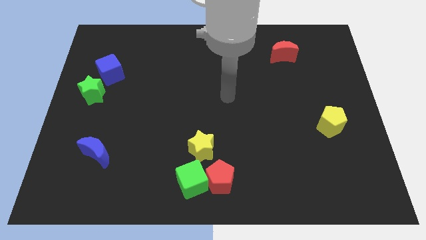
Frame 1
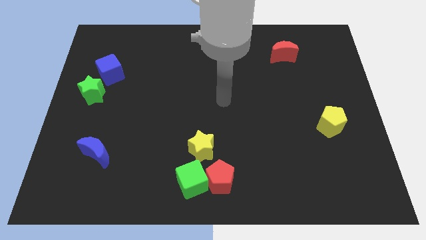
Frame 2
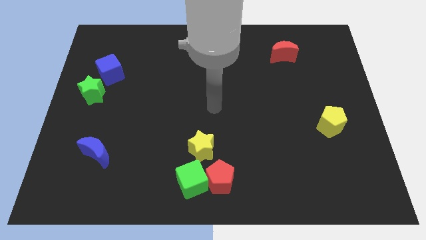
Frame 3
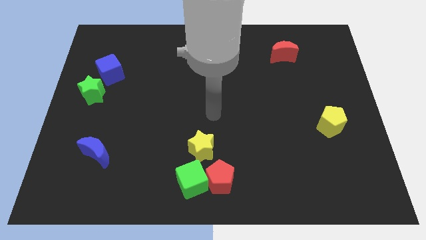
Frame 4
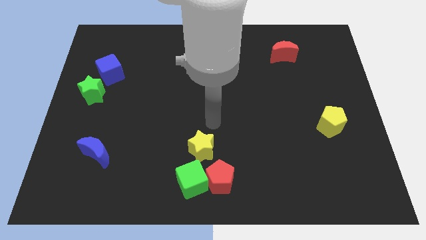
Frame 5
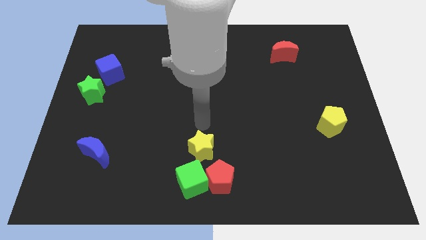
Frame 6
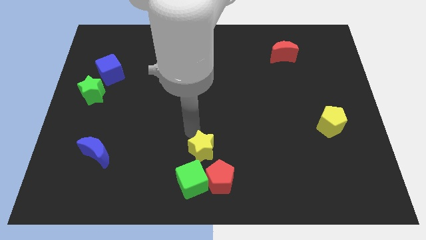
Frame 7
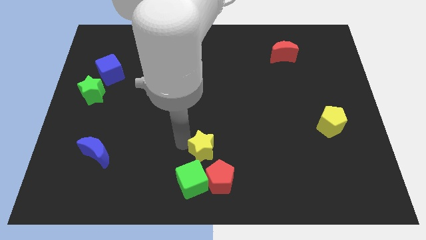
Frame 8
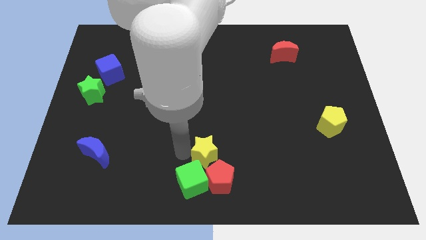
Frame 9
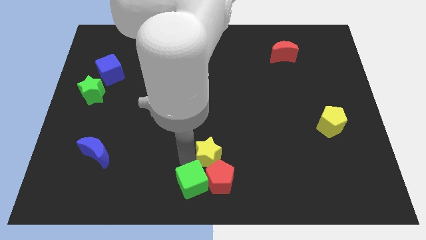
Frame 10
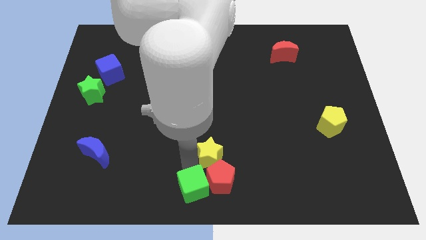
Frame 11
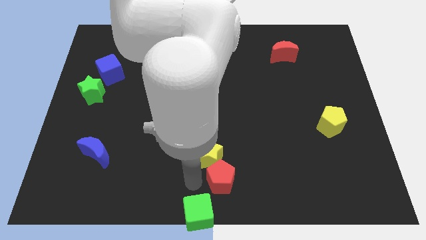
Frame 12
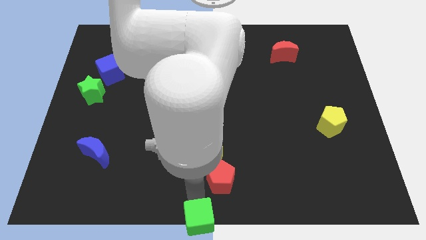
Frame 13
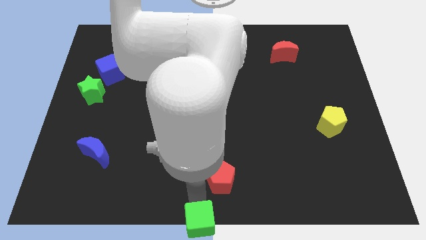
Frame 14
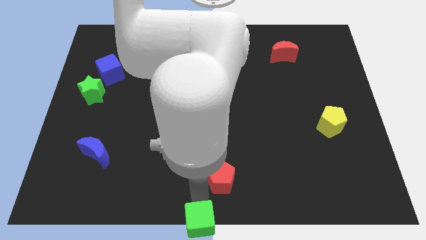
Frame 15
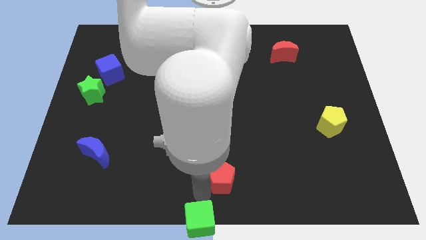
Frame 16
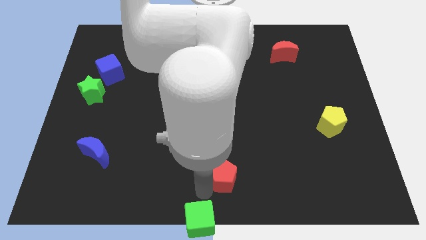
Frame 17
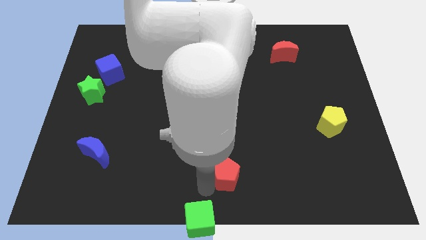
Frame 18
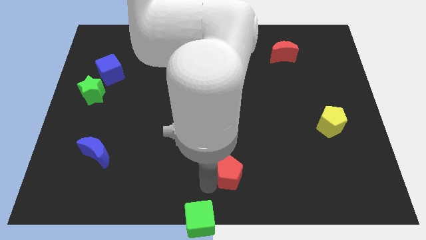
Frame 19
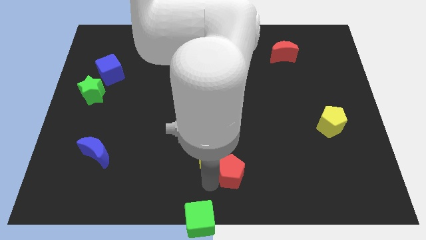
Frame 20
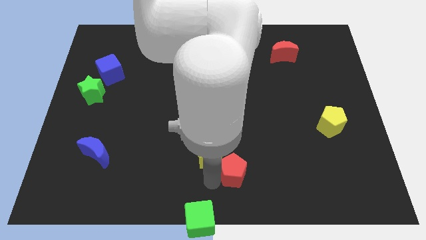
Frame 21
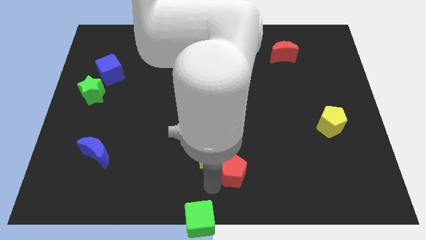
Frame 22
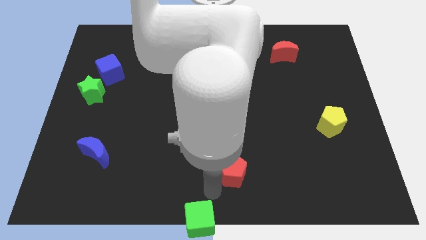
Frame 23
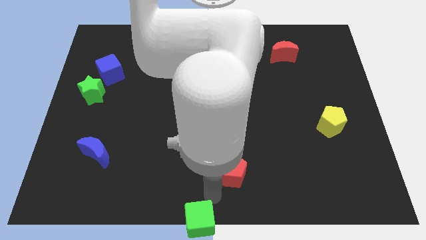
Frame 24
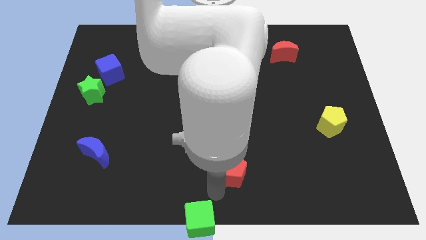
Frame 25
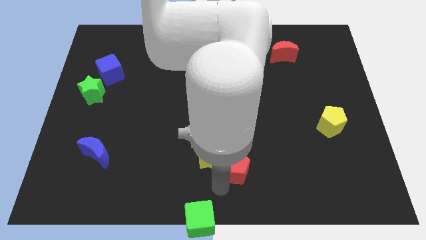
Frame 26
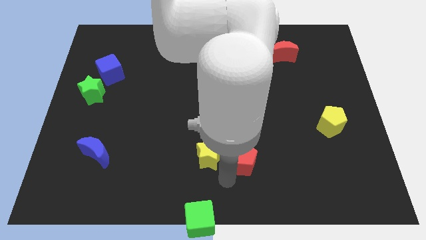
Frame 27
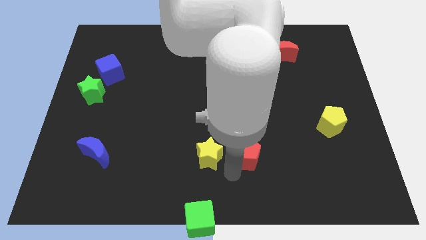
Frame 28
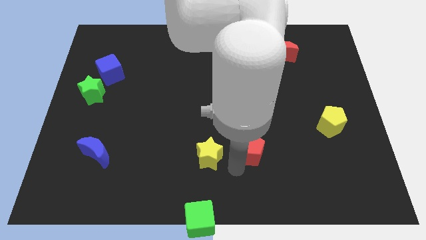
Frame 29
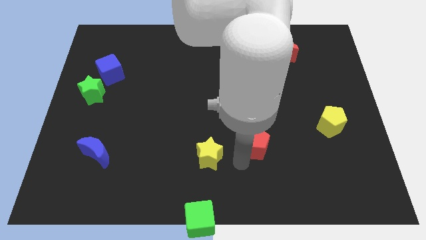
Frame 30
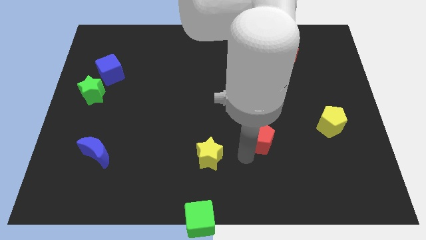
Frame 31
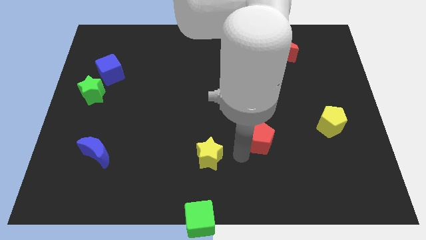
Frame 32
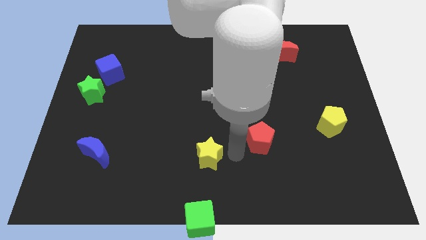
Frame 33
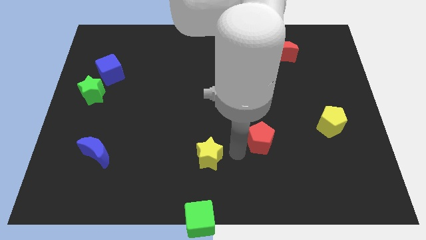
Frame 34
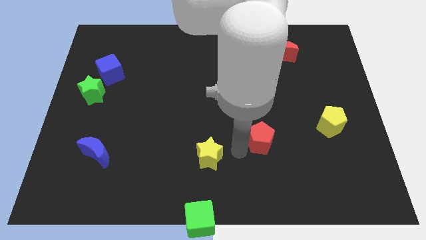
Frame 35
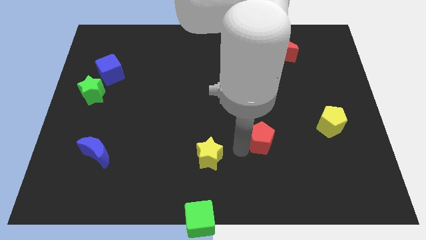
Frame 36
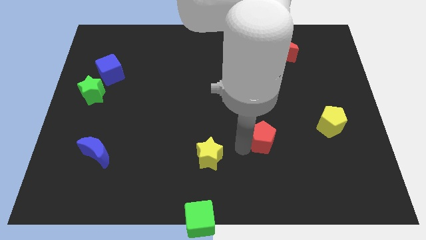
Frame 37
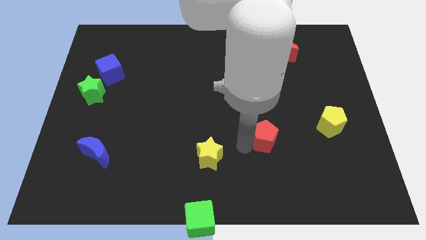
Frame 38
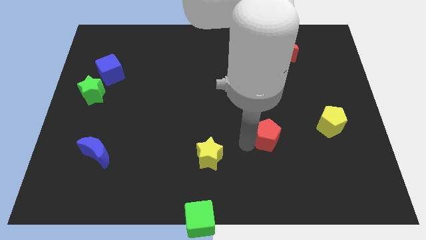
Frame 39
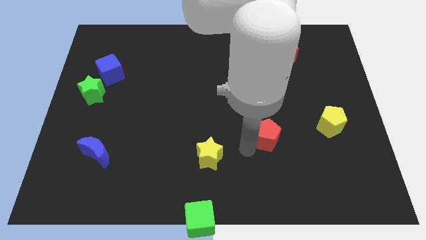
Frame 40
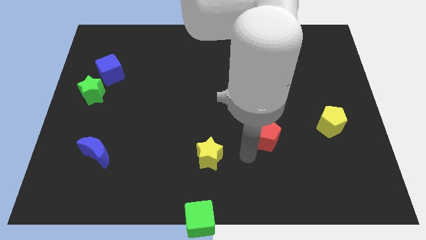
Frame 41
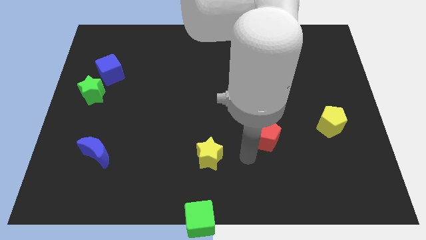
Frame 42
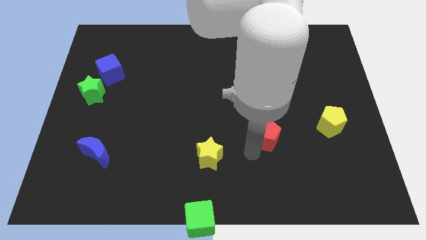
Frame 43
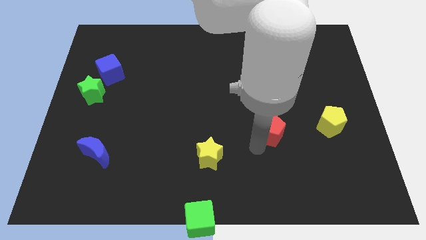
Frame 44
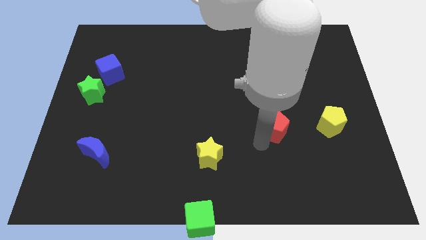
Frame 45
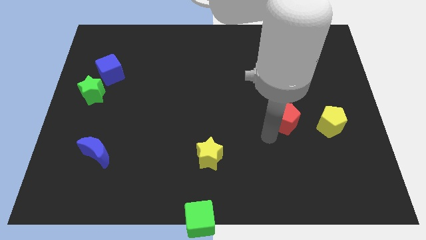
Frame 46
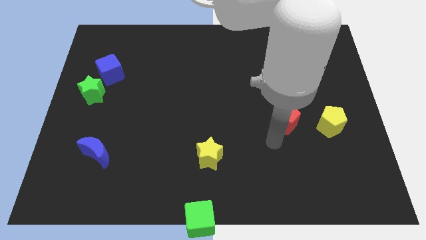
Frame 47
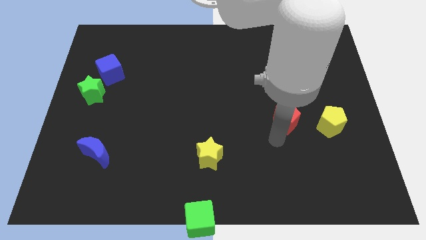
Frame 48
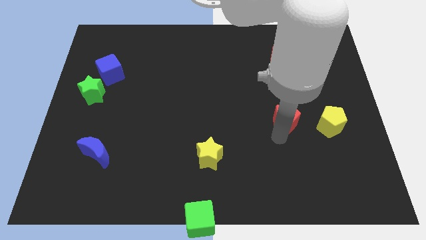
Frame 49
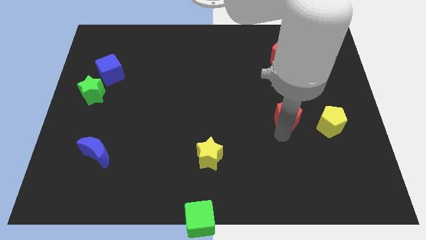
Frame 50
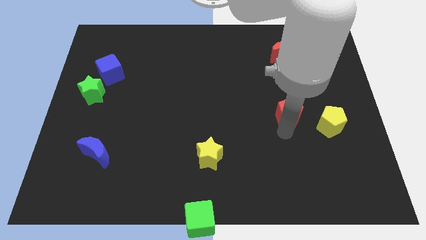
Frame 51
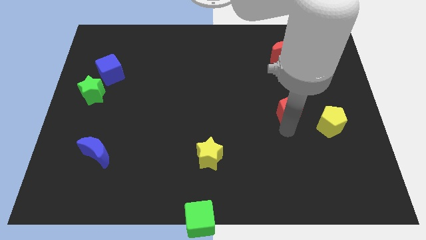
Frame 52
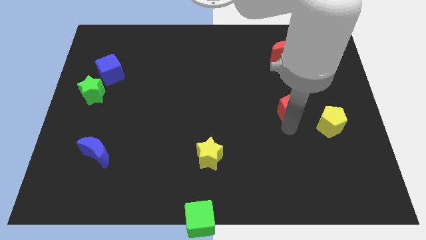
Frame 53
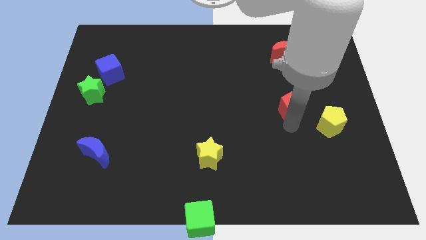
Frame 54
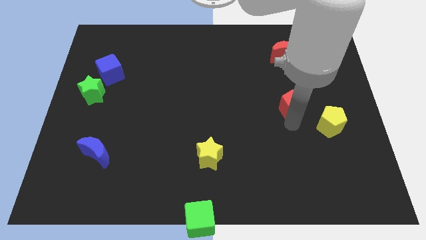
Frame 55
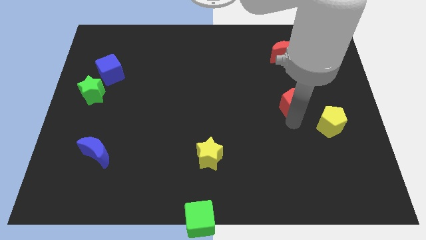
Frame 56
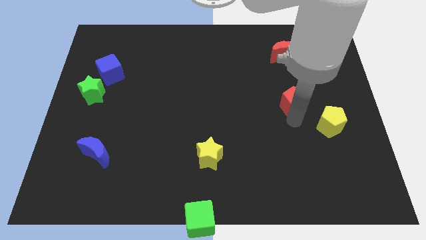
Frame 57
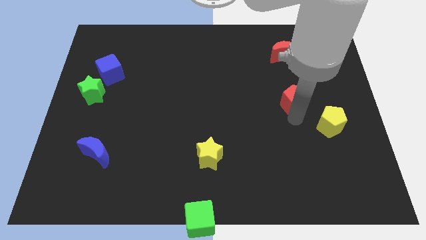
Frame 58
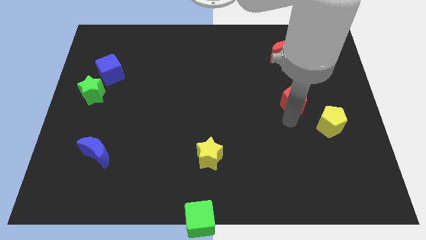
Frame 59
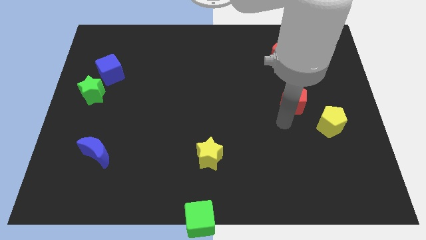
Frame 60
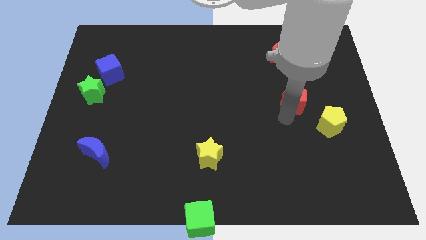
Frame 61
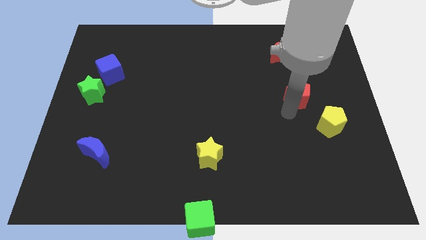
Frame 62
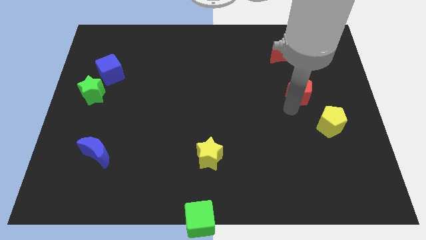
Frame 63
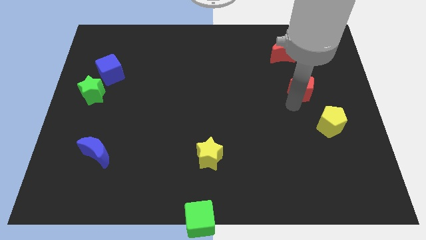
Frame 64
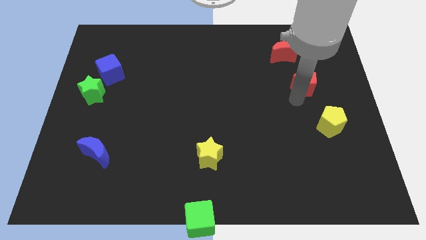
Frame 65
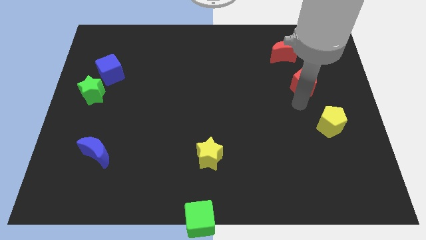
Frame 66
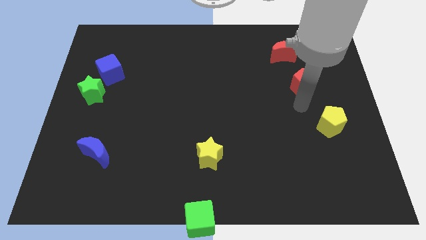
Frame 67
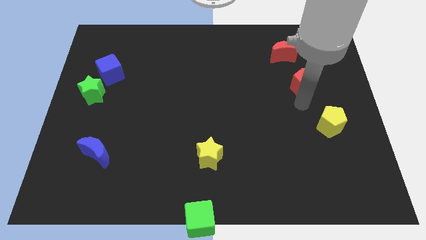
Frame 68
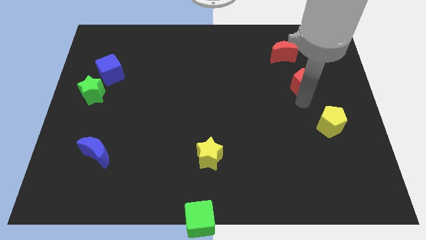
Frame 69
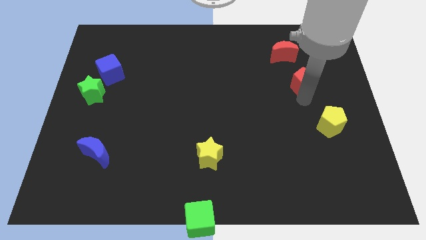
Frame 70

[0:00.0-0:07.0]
slide the red pentagon to the bottom right side of the red moon
